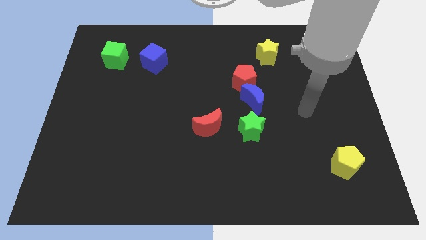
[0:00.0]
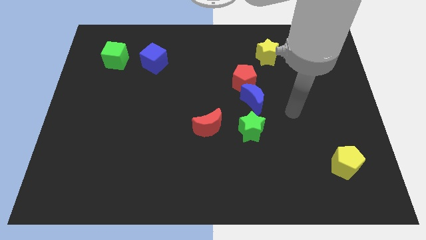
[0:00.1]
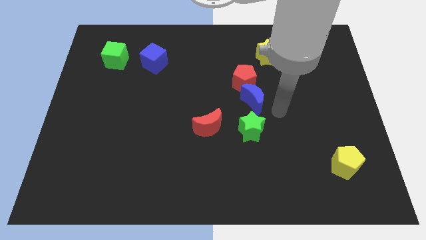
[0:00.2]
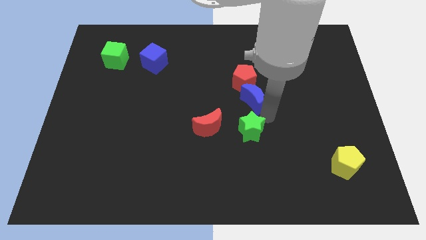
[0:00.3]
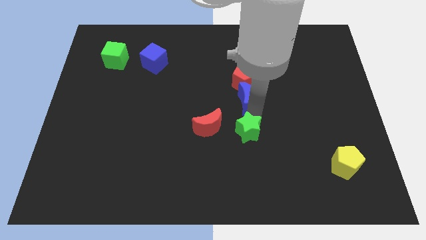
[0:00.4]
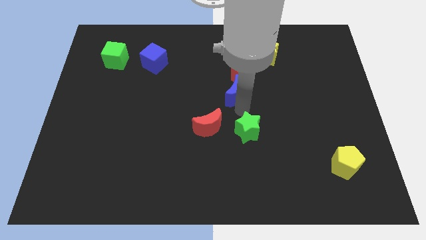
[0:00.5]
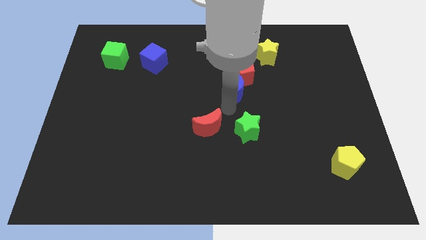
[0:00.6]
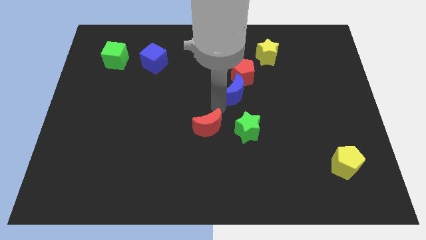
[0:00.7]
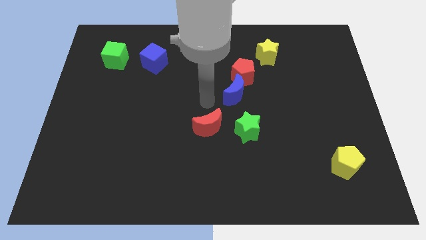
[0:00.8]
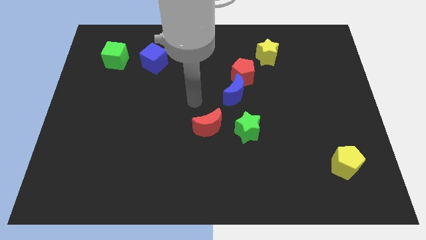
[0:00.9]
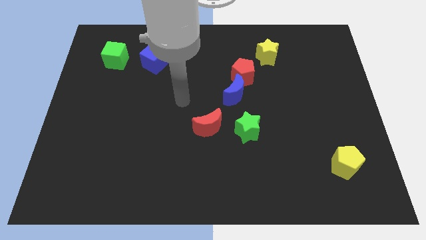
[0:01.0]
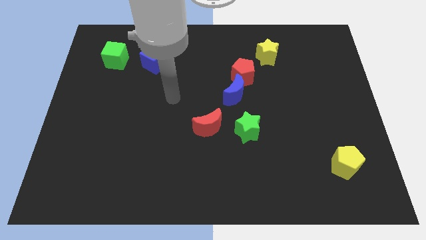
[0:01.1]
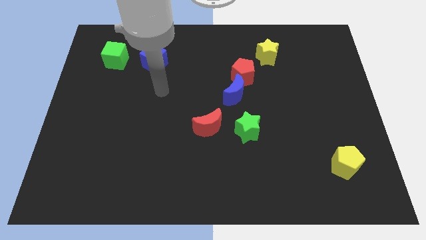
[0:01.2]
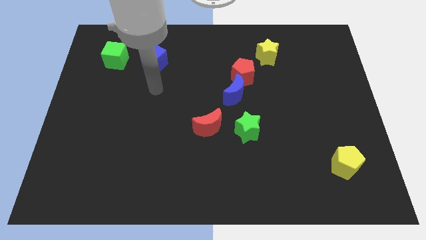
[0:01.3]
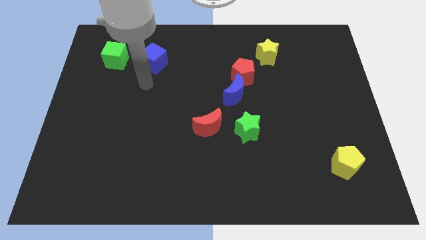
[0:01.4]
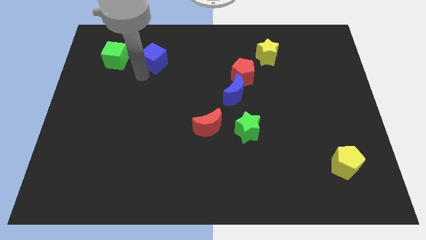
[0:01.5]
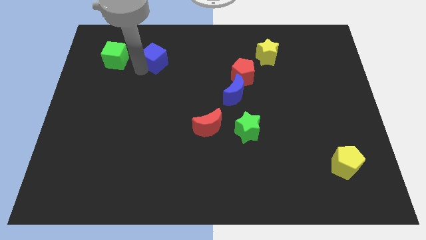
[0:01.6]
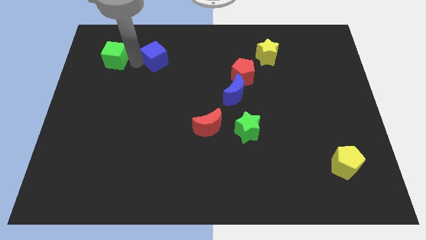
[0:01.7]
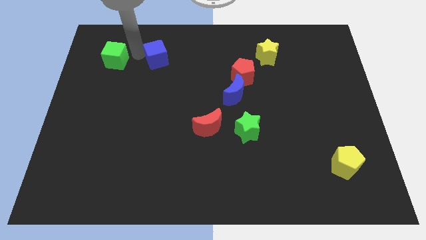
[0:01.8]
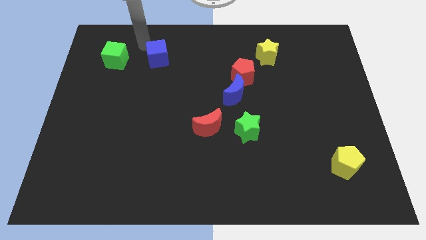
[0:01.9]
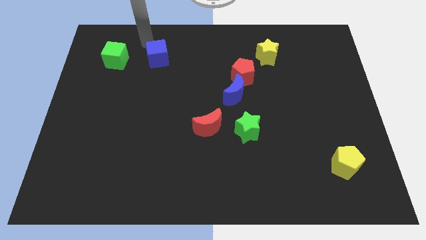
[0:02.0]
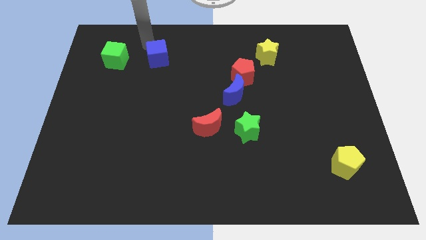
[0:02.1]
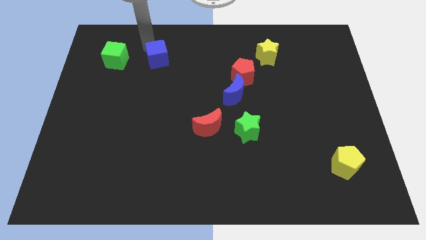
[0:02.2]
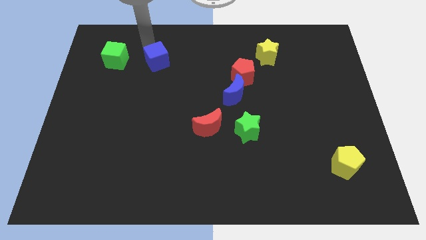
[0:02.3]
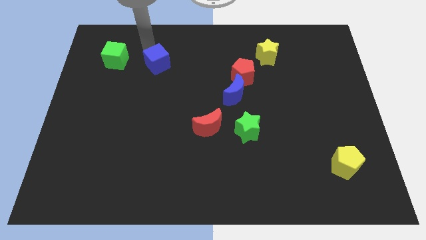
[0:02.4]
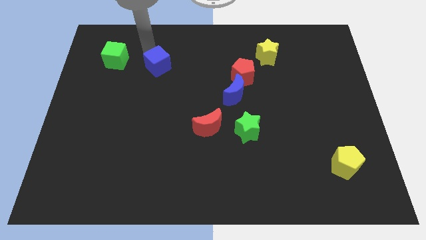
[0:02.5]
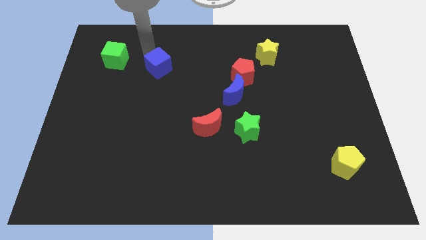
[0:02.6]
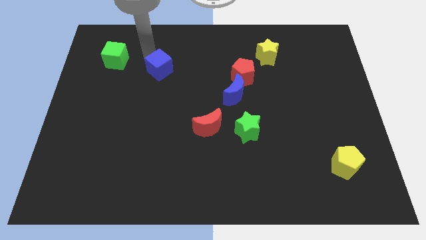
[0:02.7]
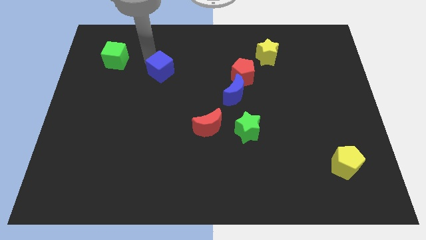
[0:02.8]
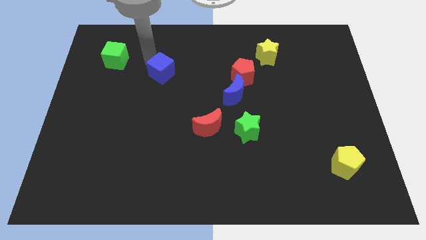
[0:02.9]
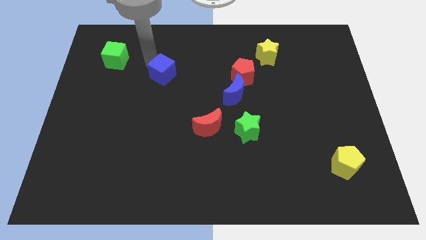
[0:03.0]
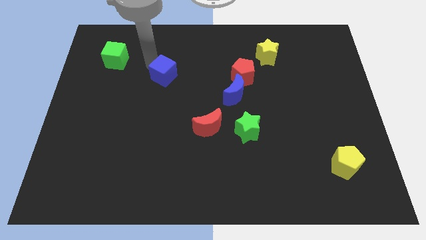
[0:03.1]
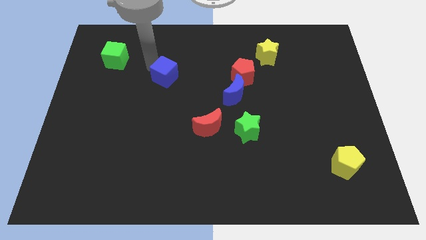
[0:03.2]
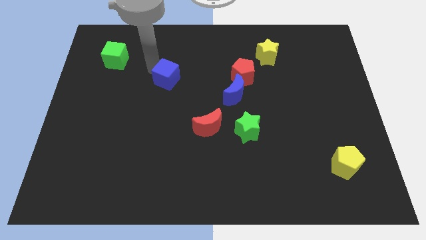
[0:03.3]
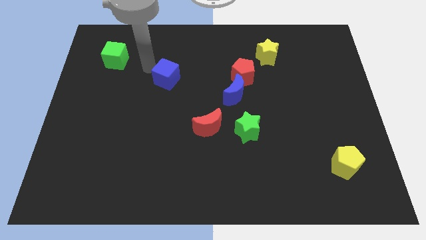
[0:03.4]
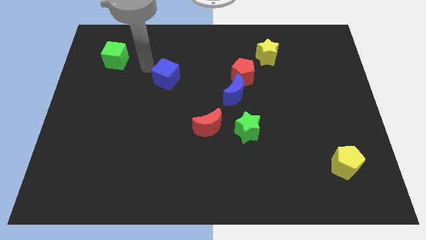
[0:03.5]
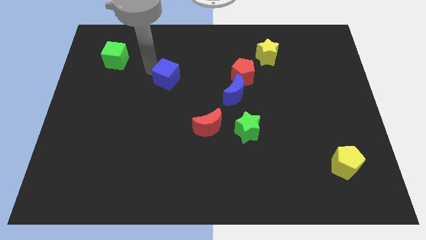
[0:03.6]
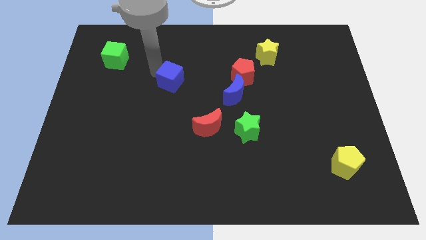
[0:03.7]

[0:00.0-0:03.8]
move the blue cube a bit downwards and then to the right

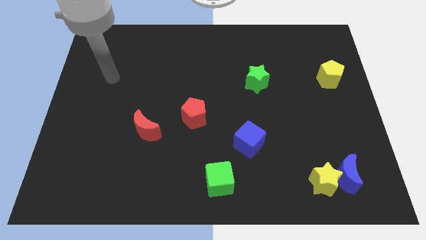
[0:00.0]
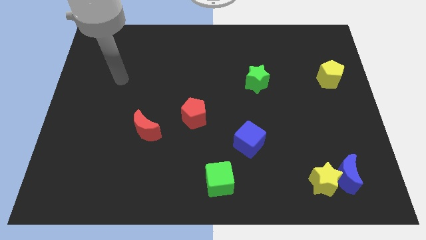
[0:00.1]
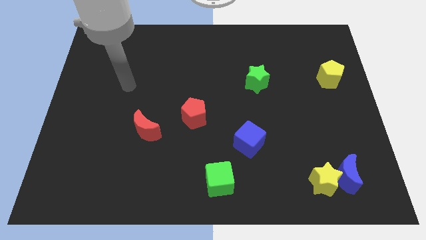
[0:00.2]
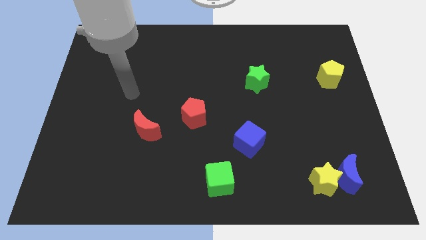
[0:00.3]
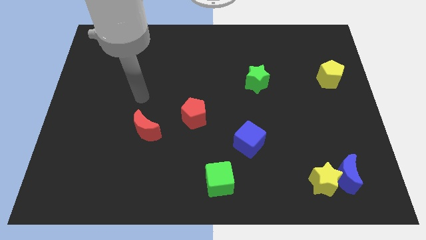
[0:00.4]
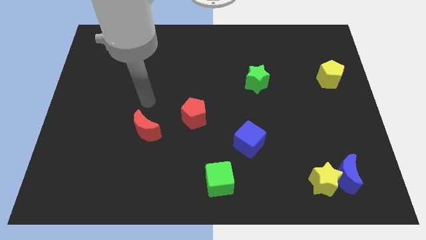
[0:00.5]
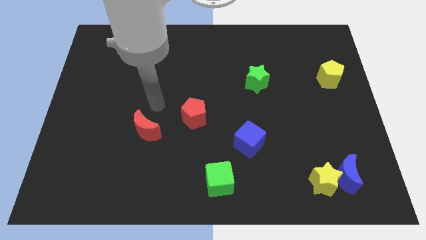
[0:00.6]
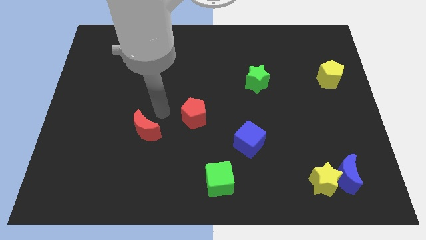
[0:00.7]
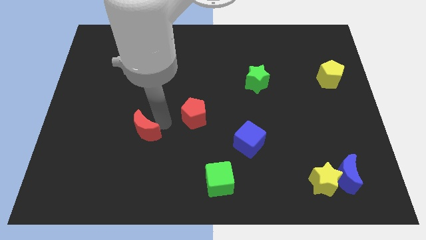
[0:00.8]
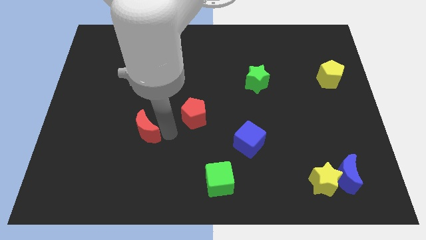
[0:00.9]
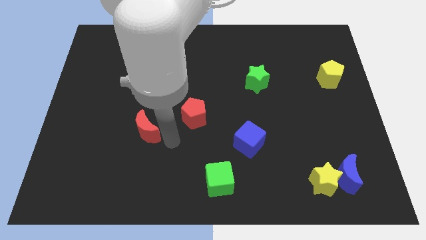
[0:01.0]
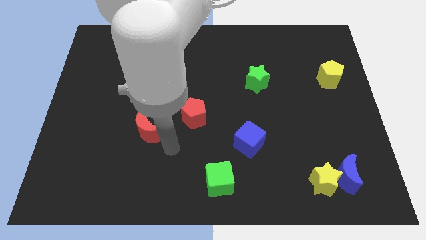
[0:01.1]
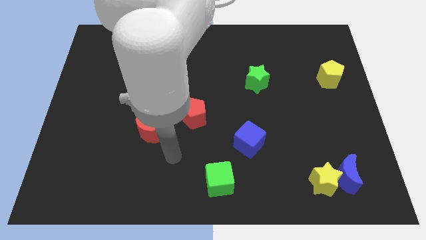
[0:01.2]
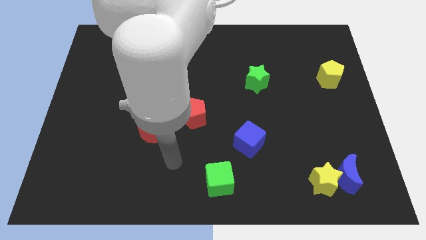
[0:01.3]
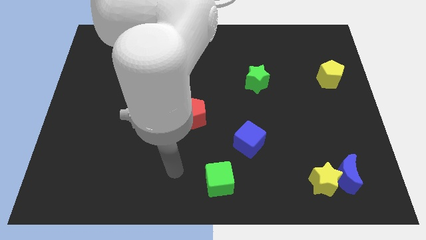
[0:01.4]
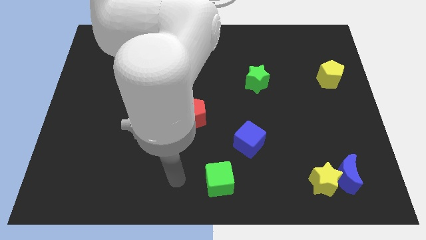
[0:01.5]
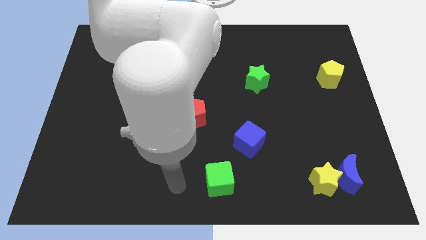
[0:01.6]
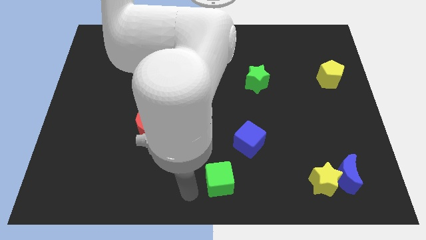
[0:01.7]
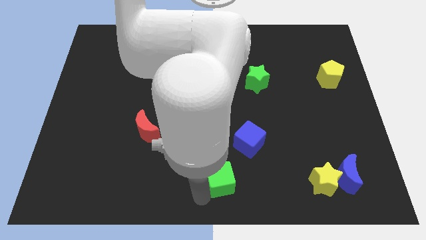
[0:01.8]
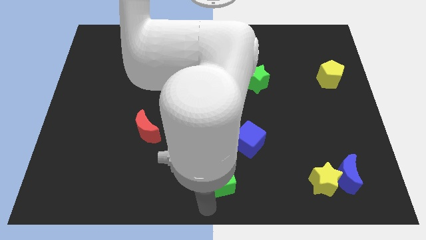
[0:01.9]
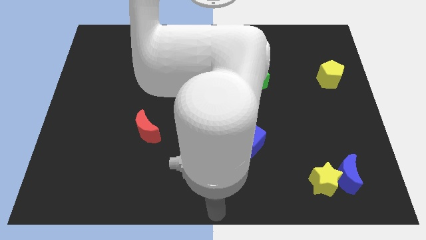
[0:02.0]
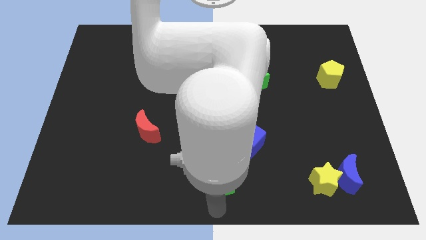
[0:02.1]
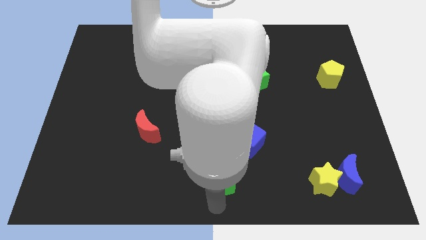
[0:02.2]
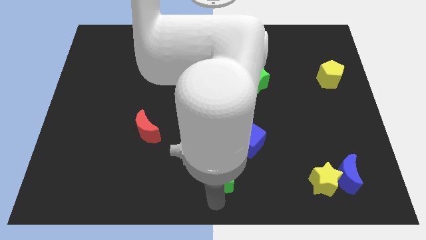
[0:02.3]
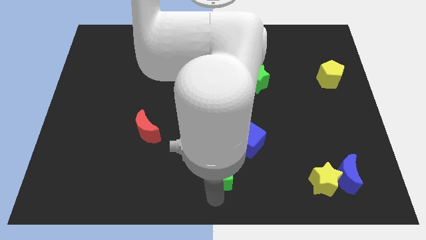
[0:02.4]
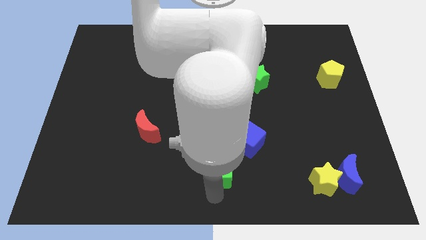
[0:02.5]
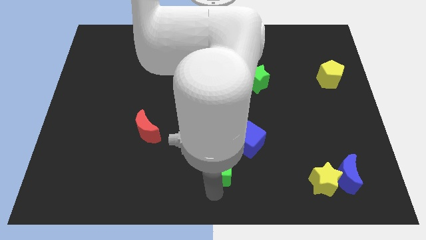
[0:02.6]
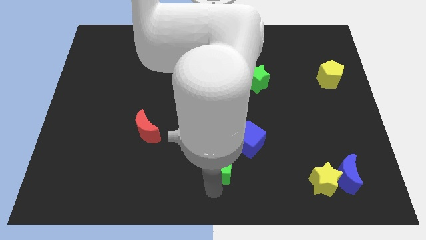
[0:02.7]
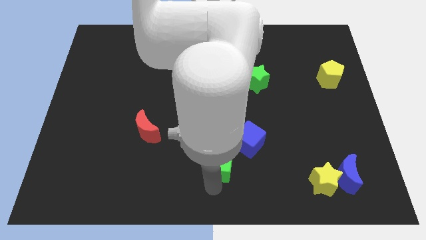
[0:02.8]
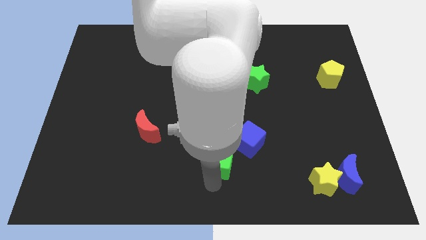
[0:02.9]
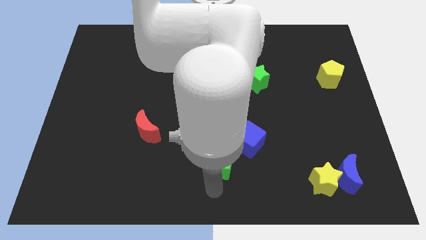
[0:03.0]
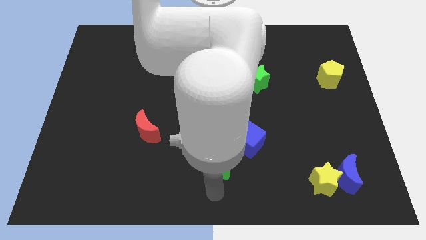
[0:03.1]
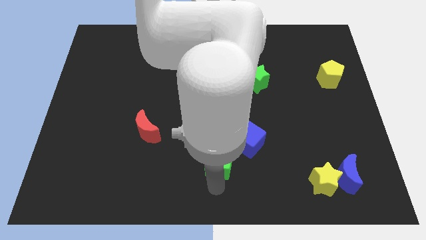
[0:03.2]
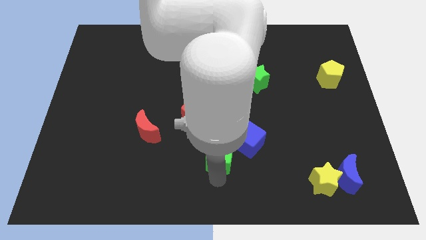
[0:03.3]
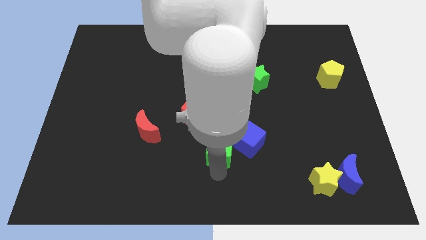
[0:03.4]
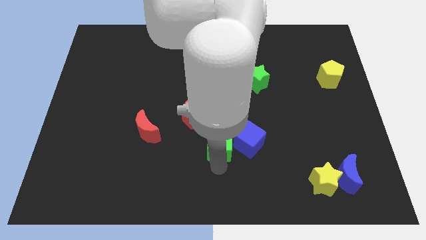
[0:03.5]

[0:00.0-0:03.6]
slightly push the green cube up

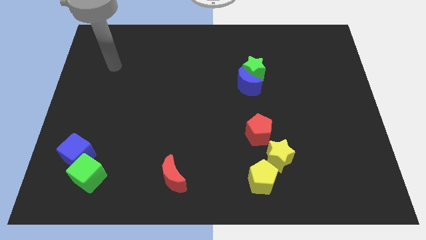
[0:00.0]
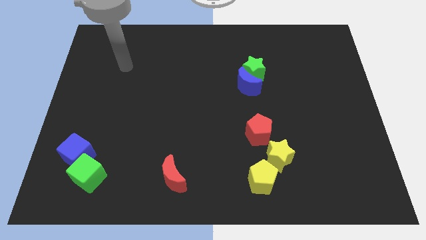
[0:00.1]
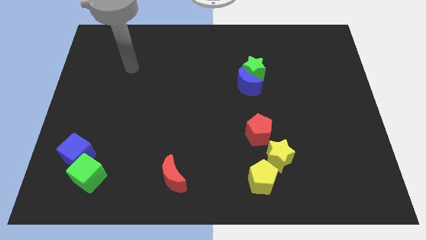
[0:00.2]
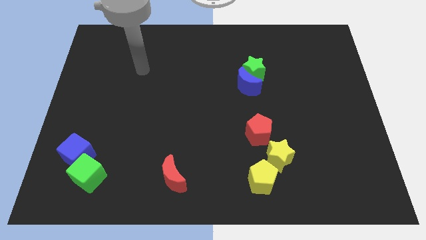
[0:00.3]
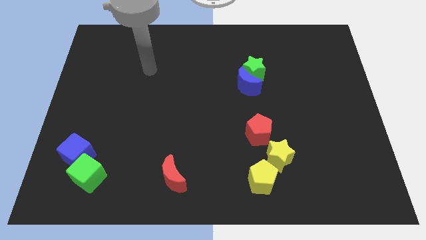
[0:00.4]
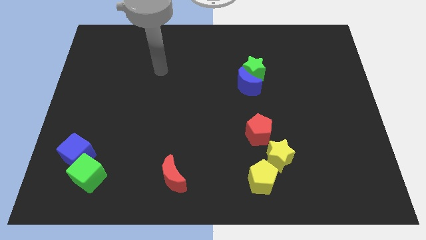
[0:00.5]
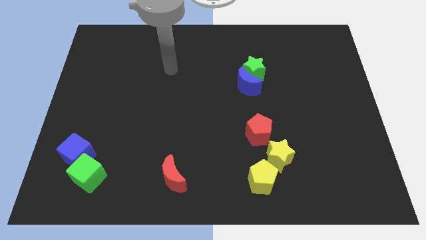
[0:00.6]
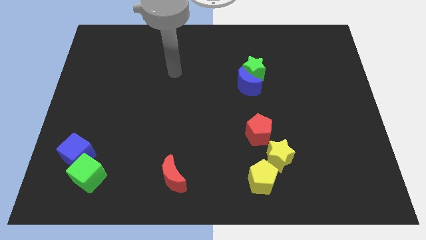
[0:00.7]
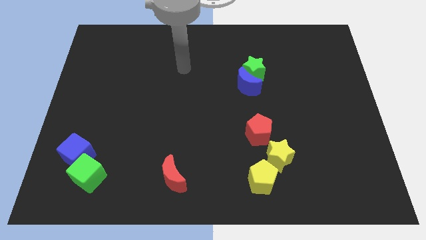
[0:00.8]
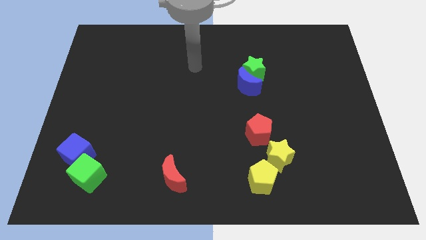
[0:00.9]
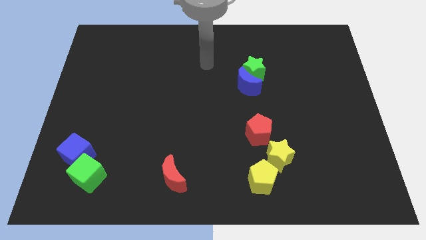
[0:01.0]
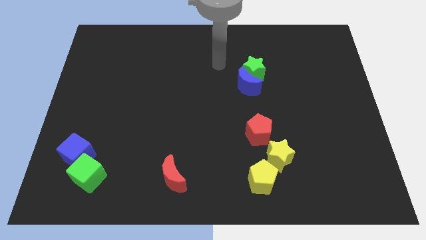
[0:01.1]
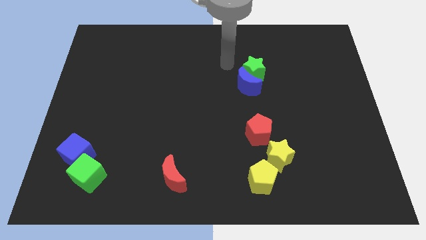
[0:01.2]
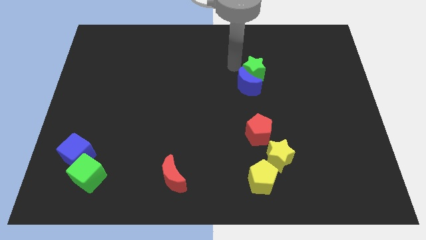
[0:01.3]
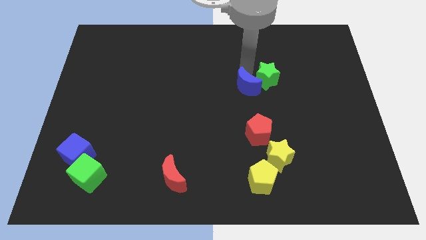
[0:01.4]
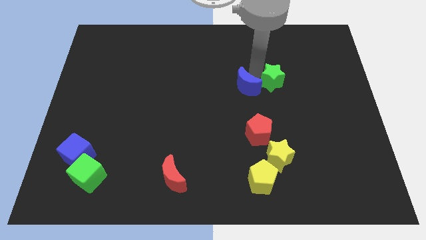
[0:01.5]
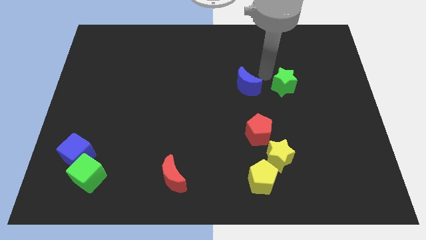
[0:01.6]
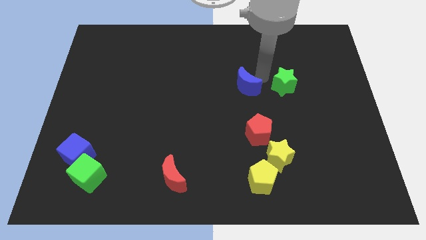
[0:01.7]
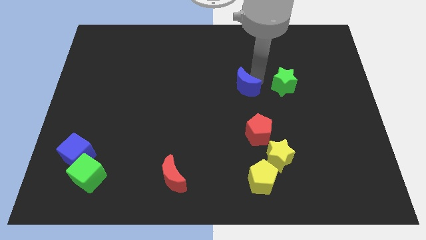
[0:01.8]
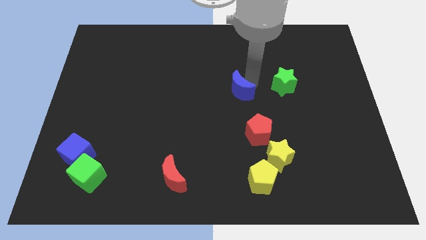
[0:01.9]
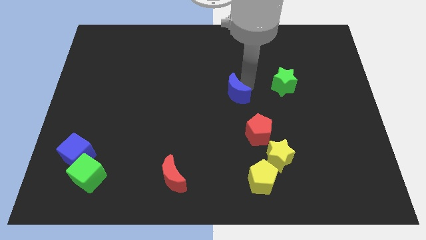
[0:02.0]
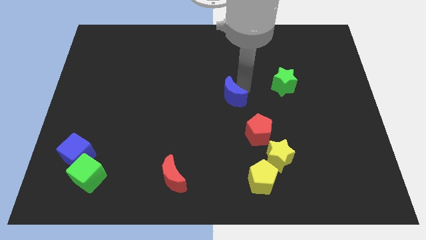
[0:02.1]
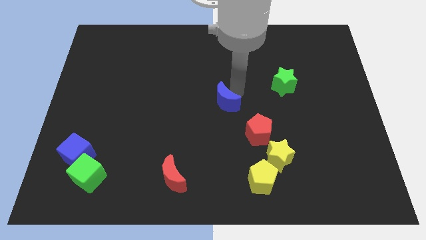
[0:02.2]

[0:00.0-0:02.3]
move the blue moon a little bit downwards and then left
